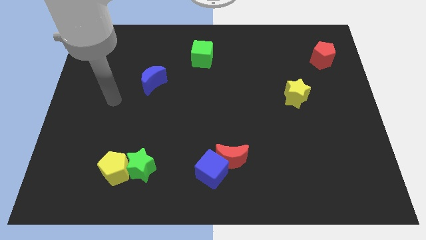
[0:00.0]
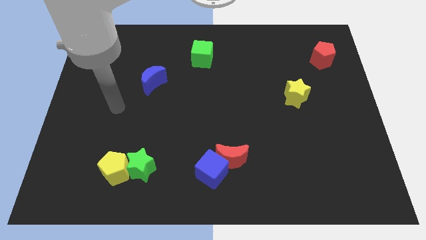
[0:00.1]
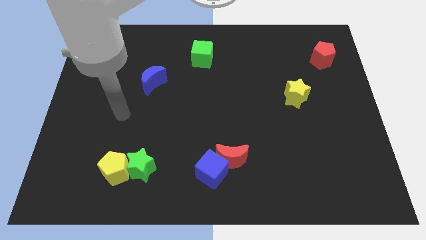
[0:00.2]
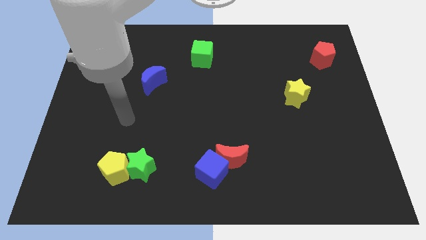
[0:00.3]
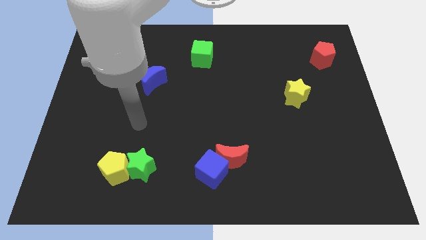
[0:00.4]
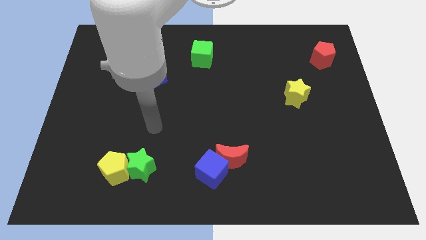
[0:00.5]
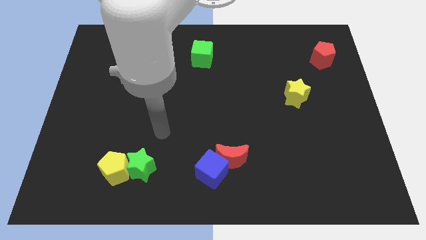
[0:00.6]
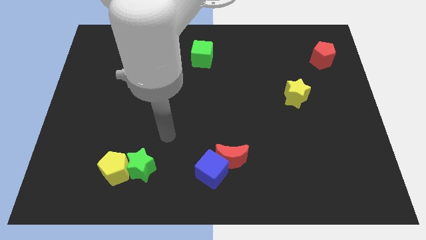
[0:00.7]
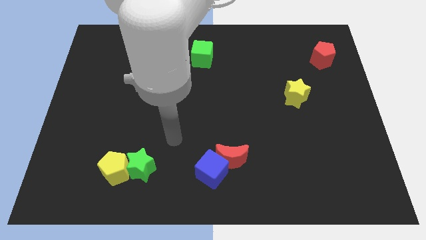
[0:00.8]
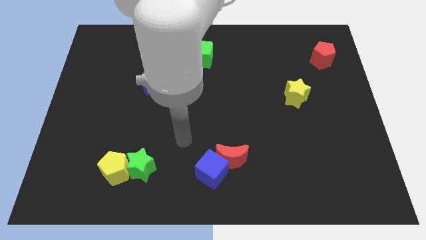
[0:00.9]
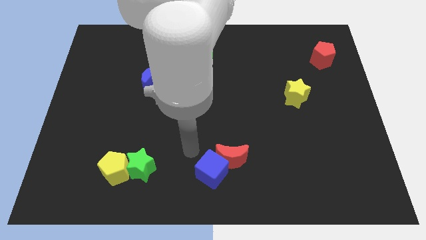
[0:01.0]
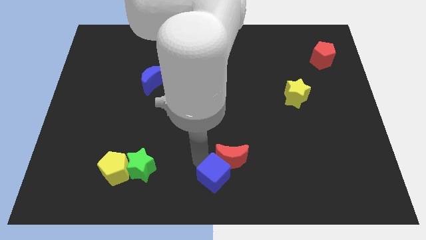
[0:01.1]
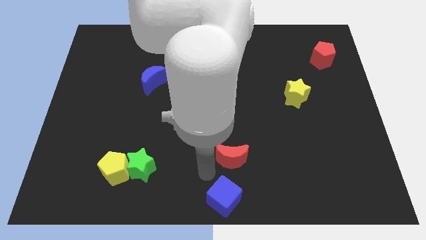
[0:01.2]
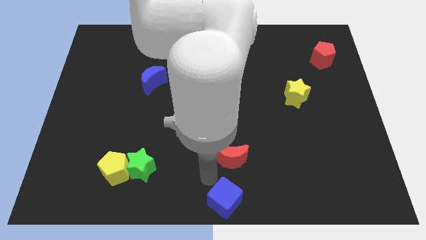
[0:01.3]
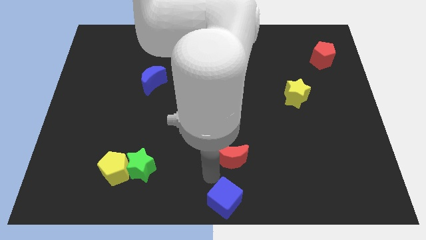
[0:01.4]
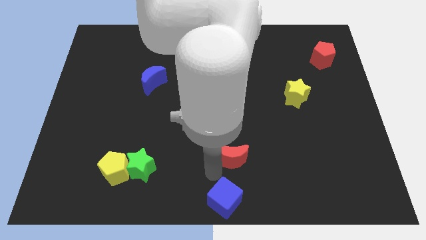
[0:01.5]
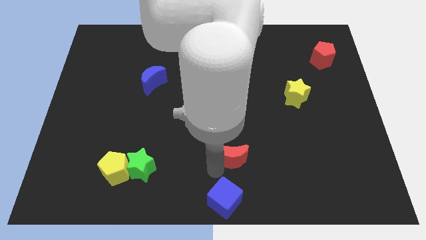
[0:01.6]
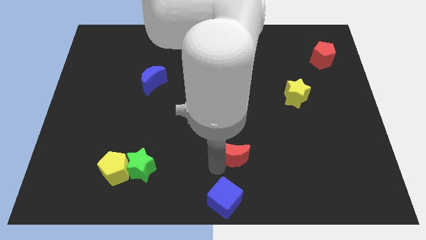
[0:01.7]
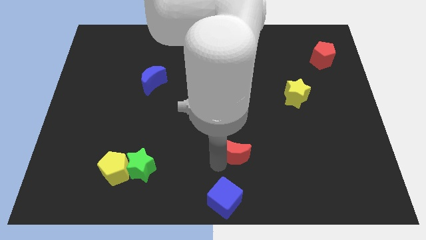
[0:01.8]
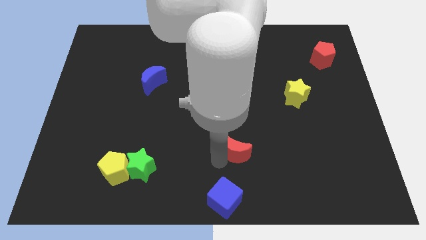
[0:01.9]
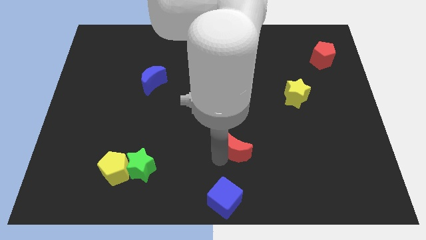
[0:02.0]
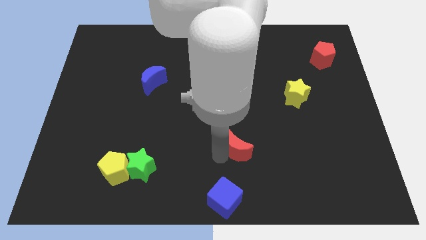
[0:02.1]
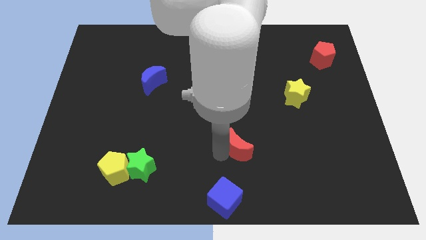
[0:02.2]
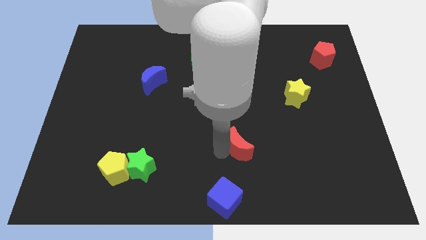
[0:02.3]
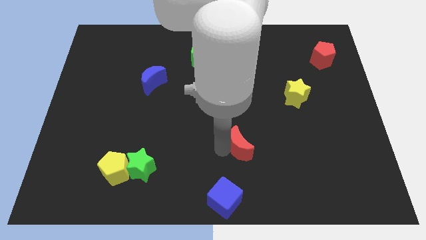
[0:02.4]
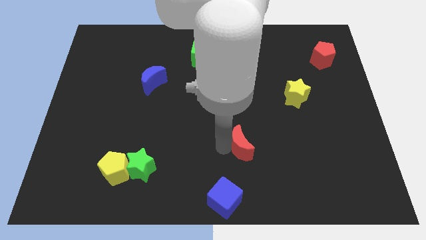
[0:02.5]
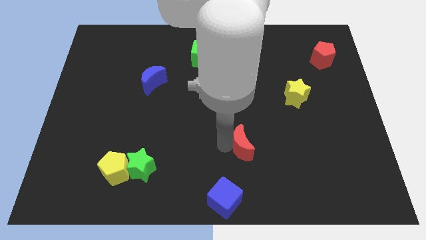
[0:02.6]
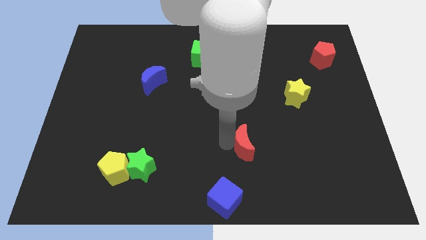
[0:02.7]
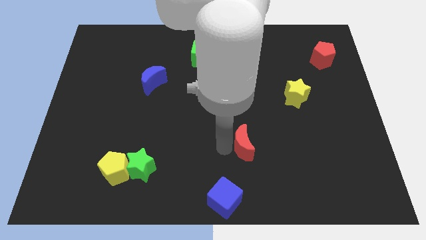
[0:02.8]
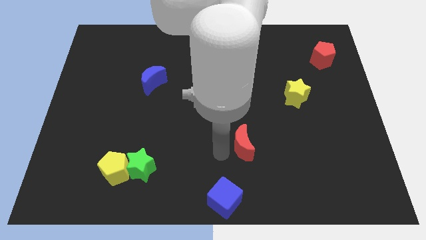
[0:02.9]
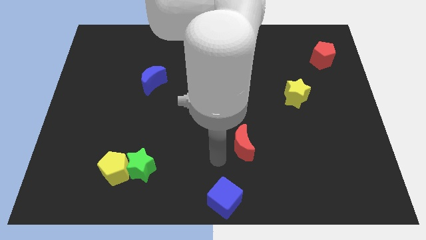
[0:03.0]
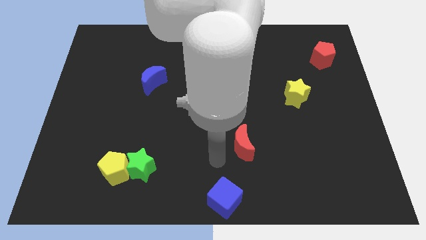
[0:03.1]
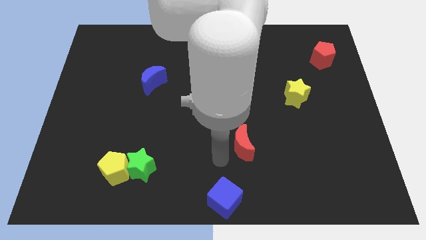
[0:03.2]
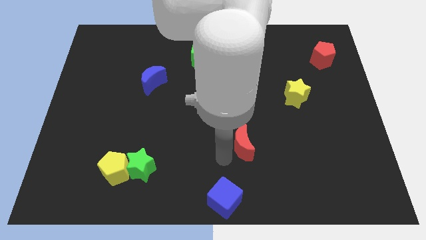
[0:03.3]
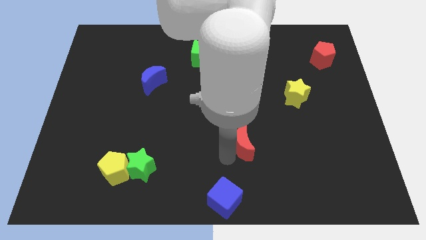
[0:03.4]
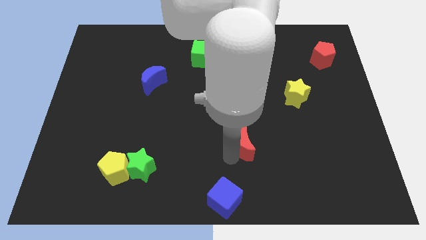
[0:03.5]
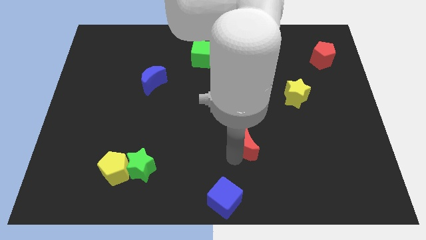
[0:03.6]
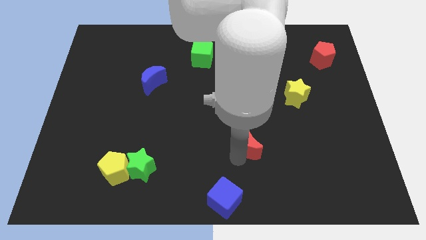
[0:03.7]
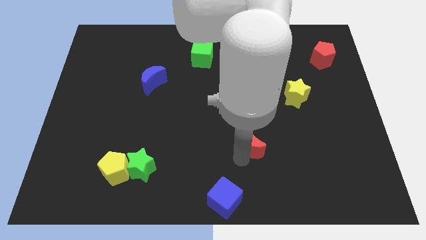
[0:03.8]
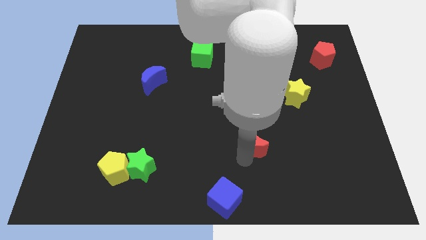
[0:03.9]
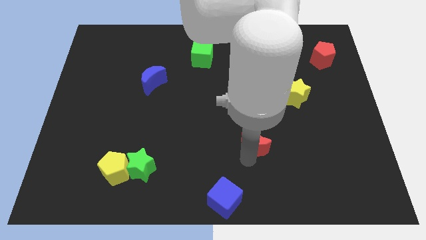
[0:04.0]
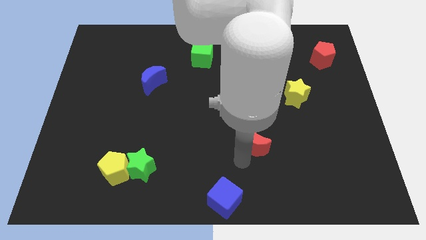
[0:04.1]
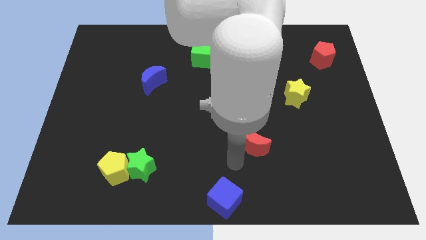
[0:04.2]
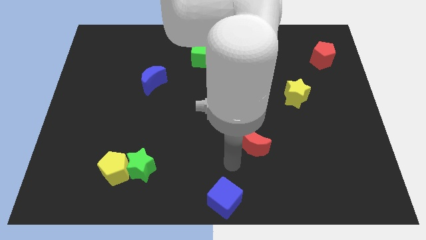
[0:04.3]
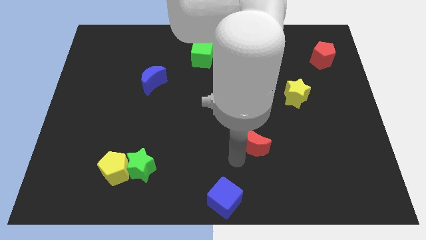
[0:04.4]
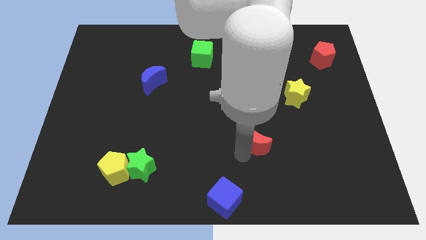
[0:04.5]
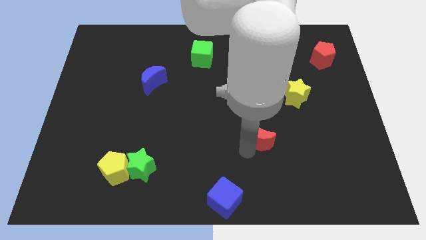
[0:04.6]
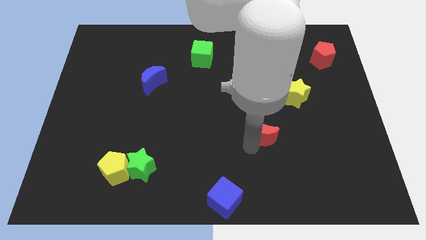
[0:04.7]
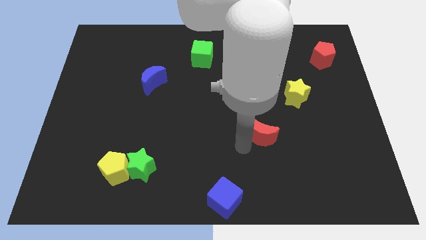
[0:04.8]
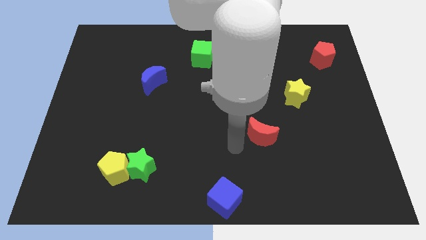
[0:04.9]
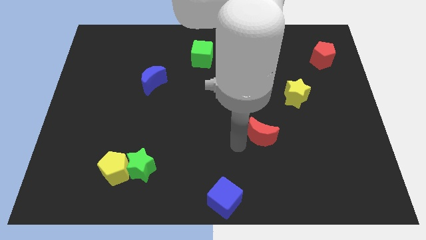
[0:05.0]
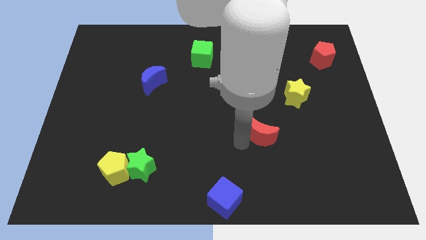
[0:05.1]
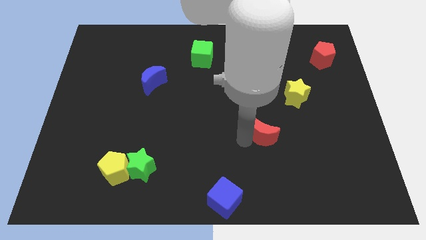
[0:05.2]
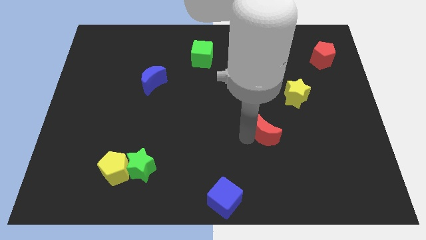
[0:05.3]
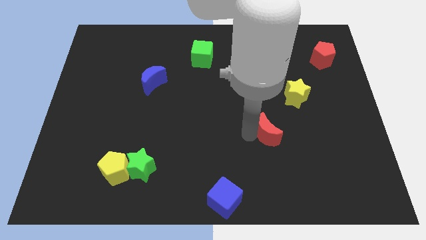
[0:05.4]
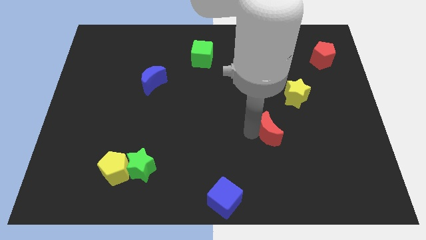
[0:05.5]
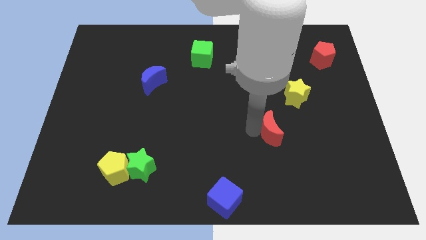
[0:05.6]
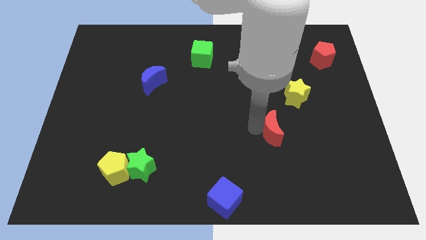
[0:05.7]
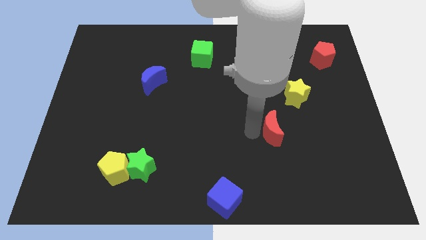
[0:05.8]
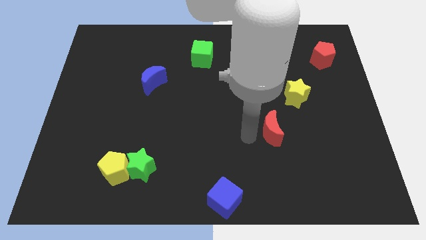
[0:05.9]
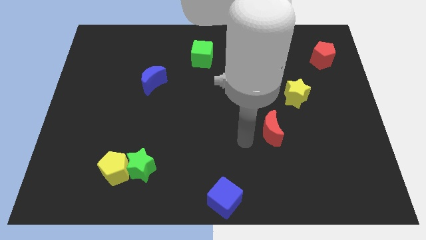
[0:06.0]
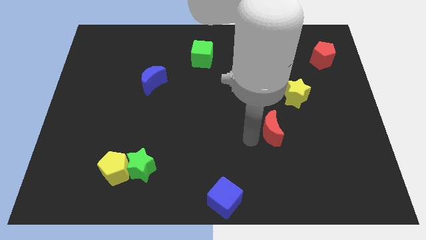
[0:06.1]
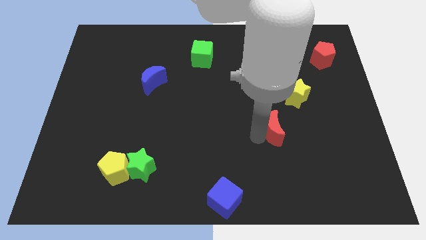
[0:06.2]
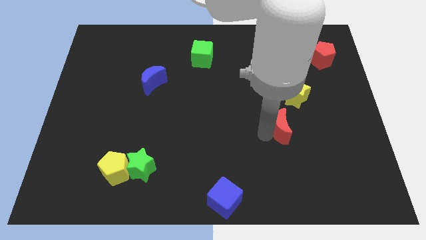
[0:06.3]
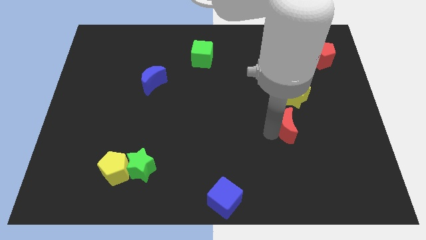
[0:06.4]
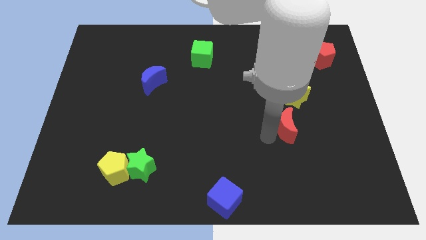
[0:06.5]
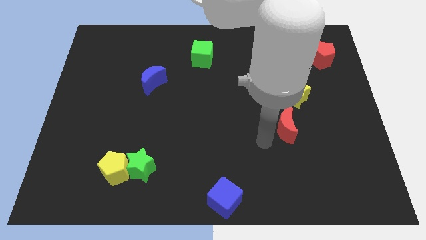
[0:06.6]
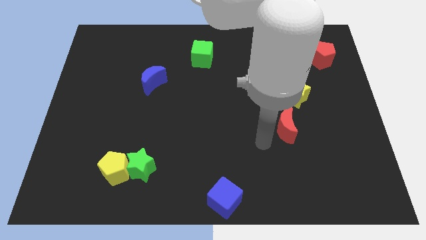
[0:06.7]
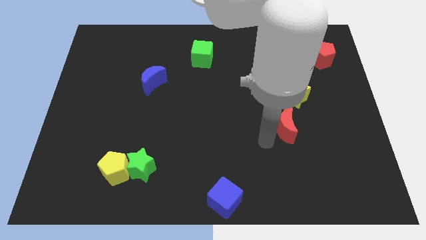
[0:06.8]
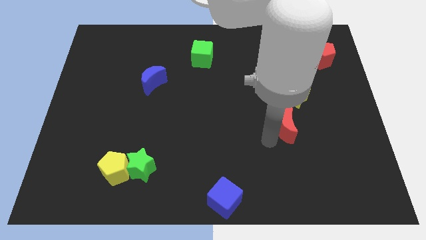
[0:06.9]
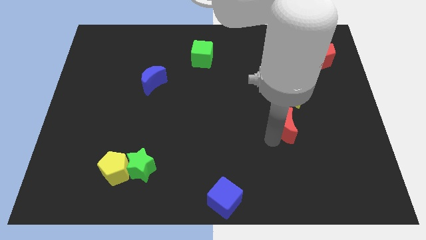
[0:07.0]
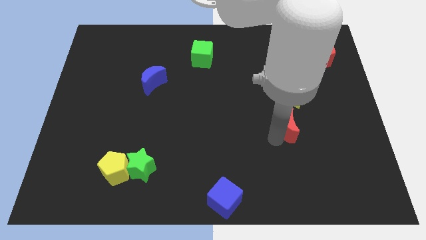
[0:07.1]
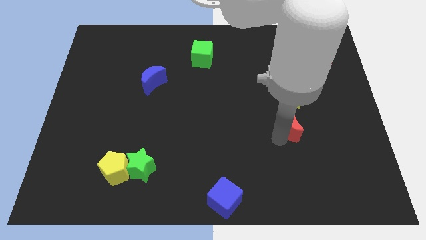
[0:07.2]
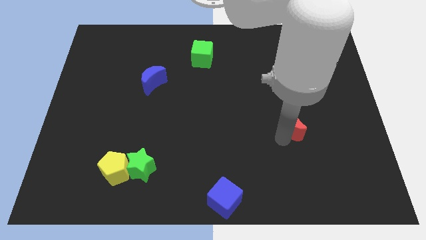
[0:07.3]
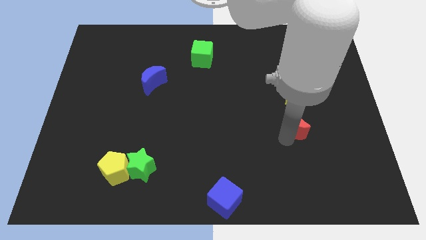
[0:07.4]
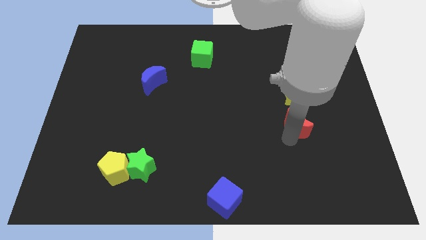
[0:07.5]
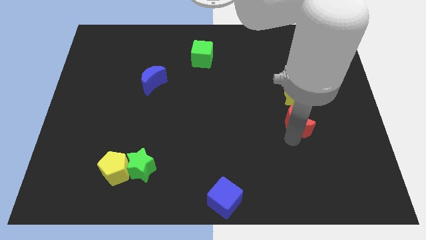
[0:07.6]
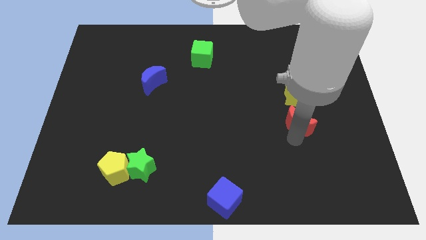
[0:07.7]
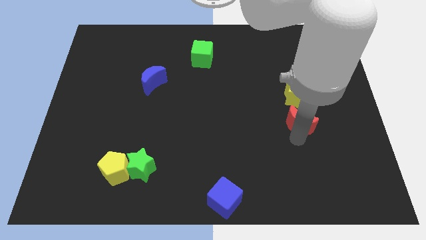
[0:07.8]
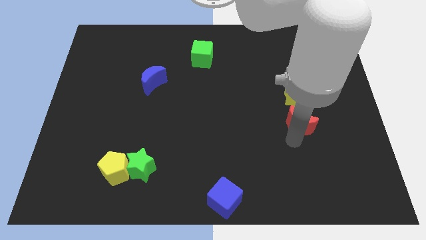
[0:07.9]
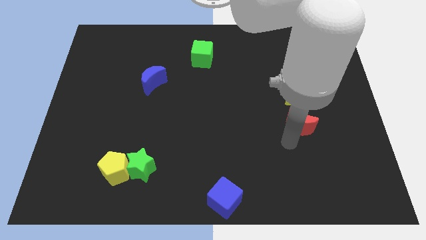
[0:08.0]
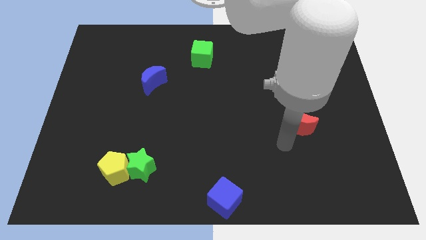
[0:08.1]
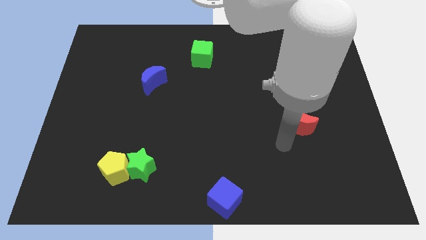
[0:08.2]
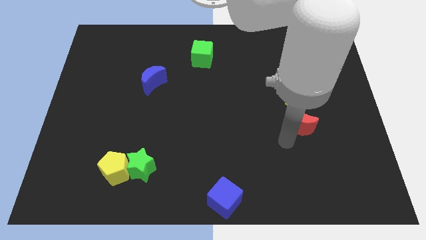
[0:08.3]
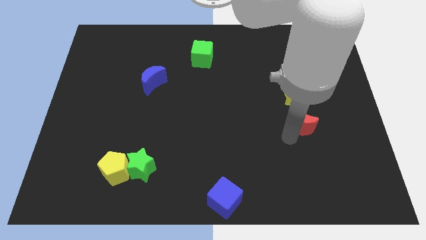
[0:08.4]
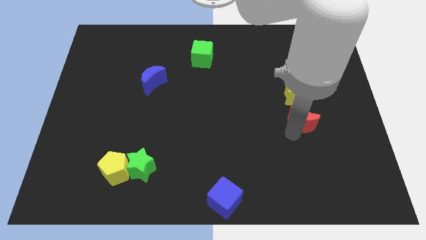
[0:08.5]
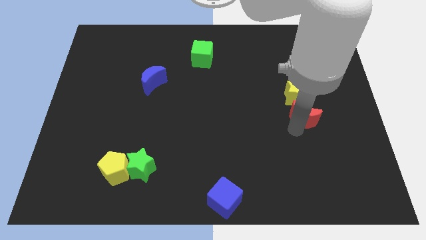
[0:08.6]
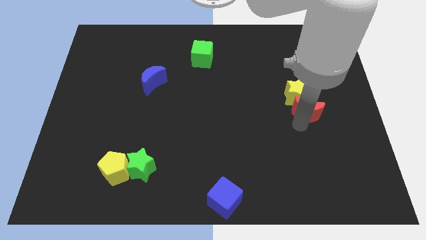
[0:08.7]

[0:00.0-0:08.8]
move the red moon up and then to the right
